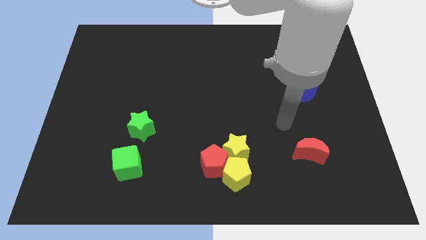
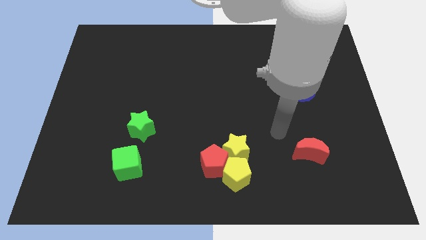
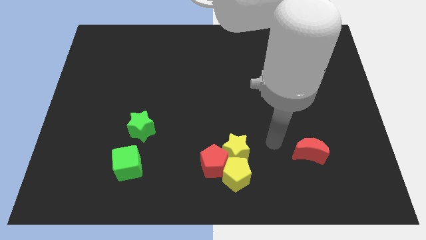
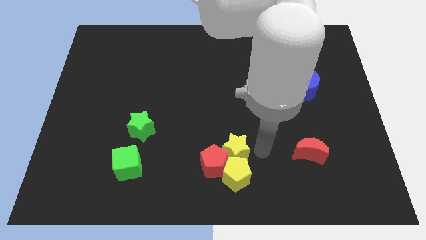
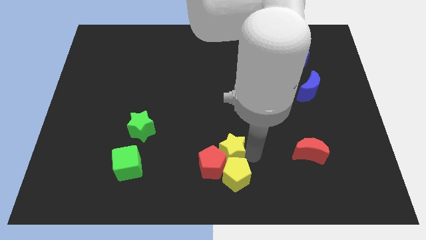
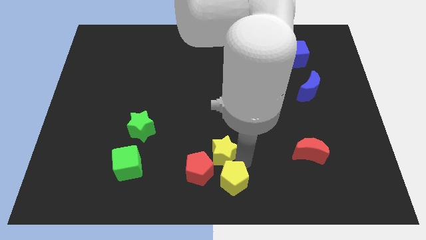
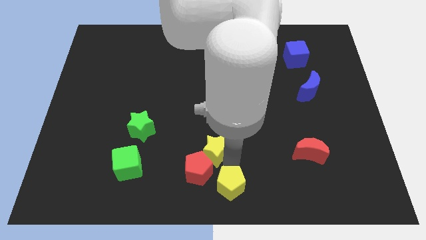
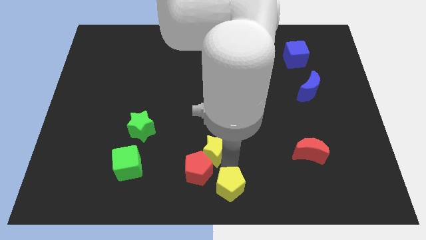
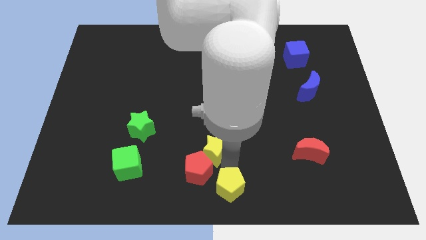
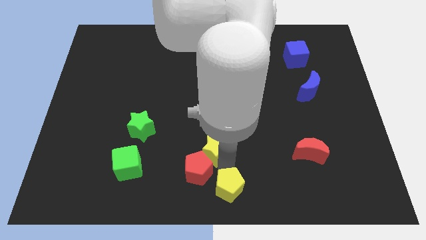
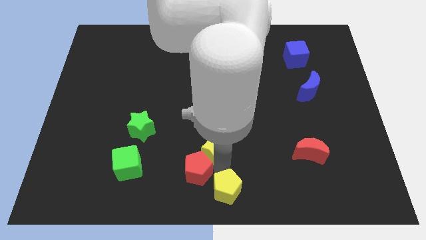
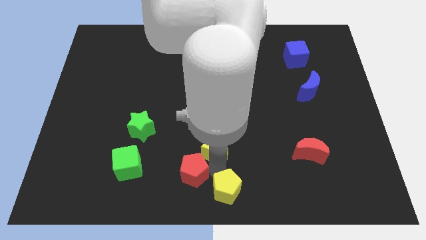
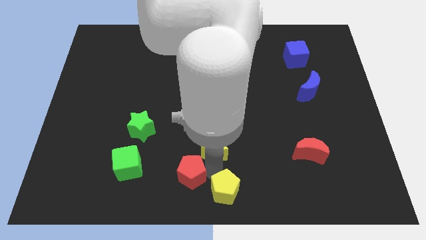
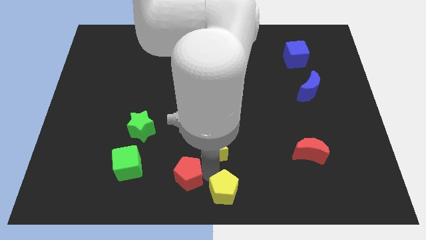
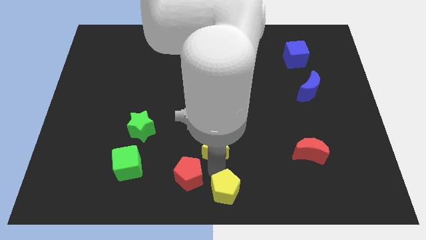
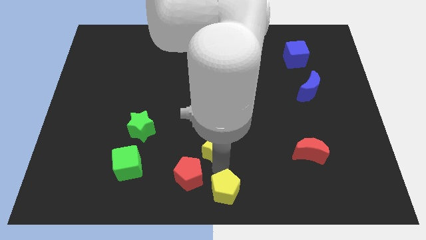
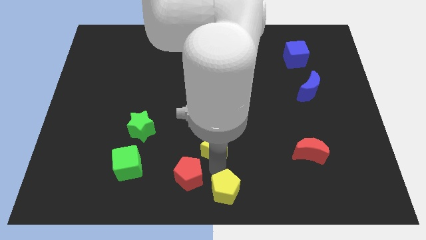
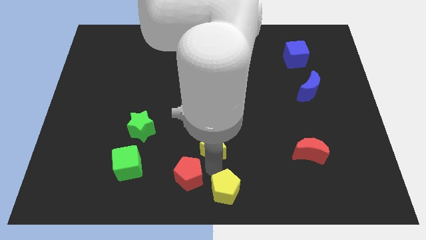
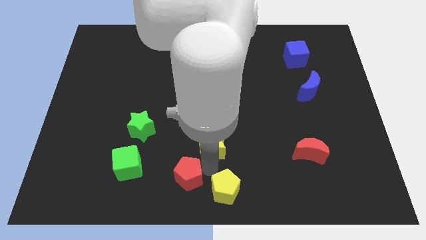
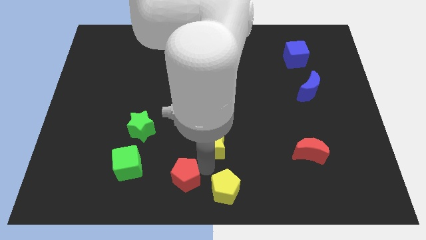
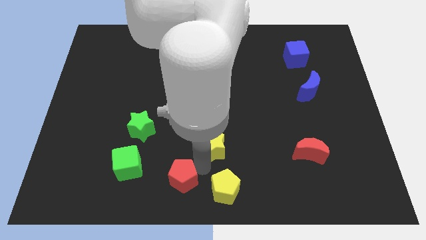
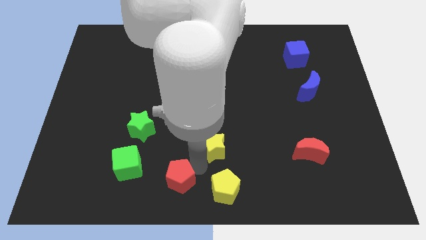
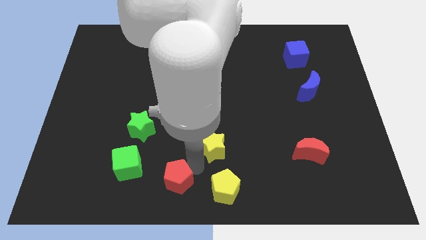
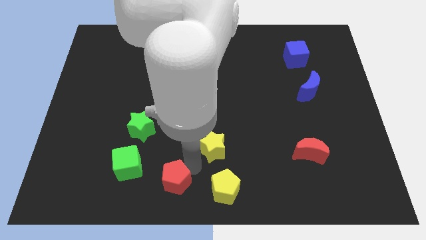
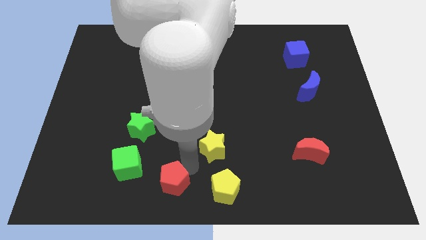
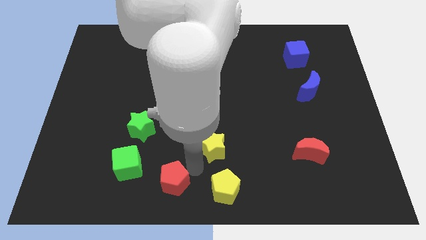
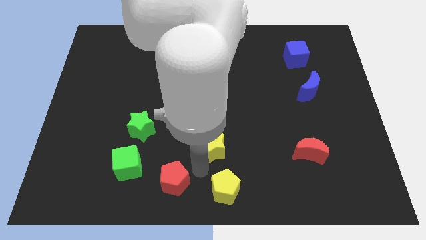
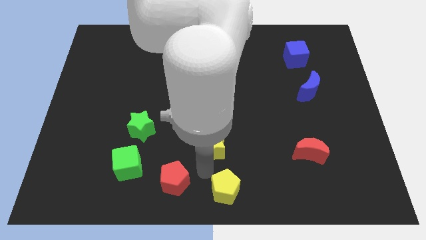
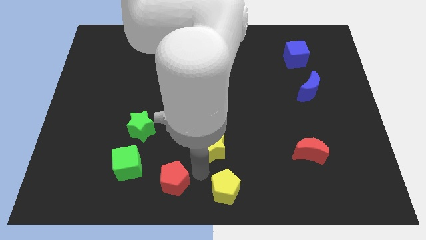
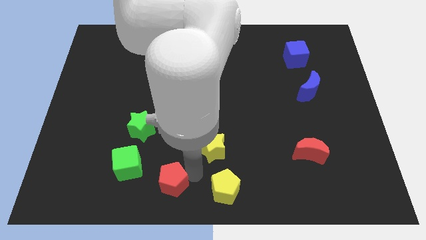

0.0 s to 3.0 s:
move the red pentagon away from the yellow pentagon and yellow star

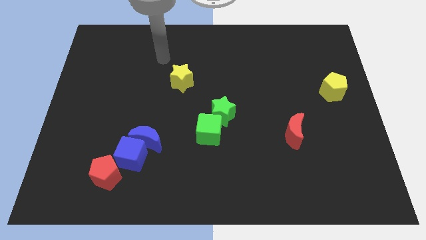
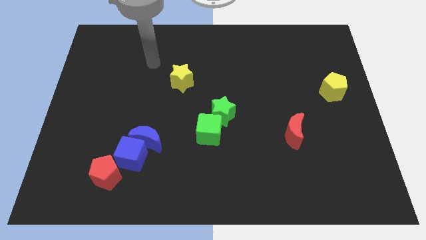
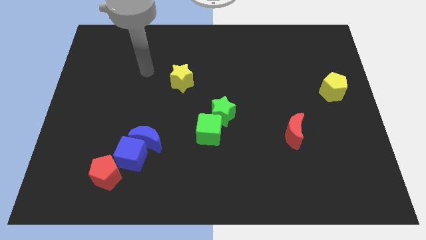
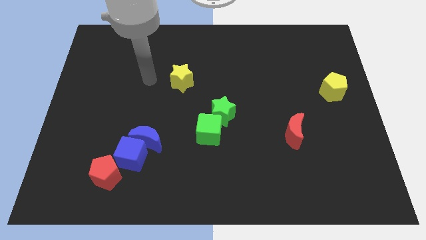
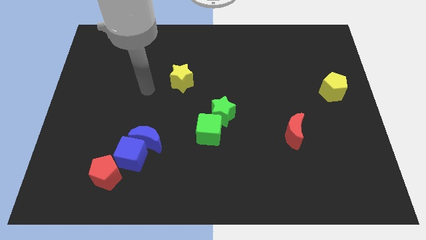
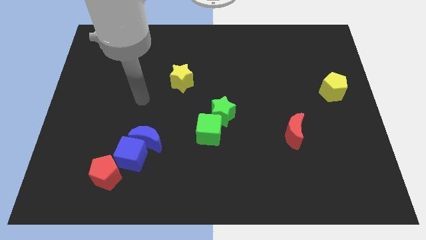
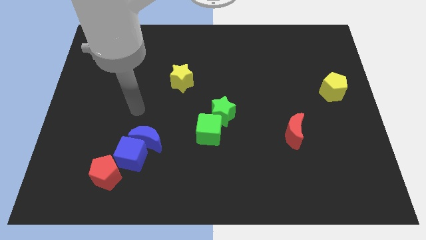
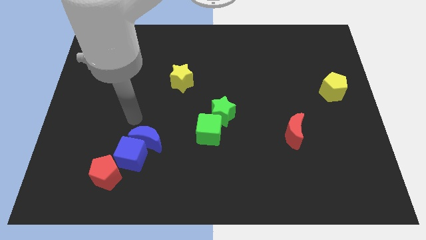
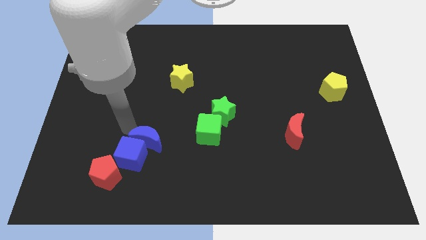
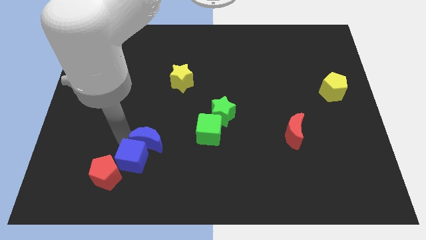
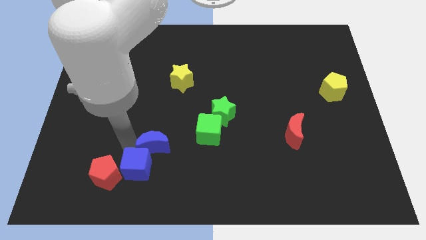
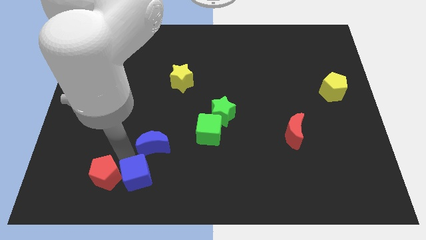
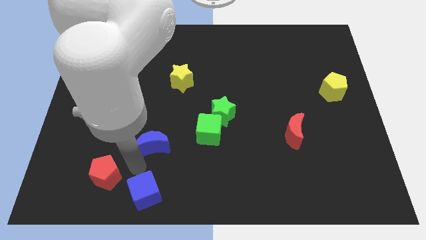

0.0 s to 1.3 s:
move the blue moon away from the blue cube

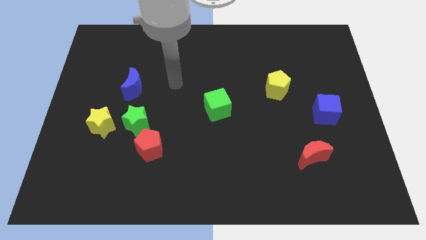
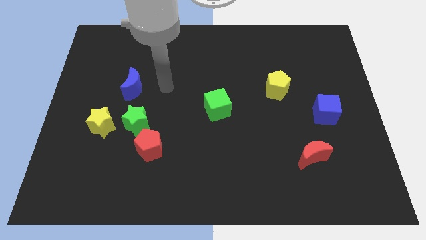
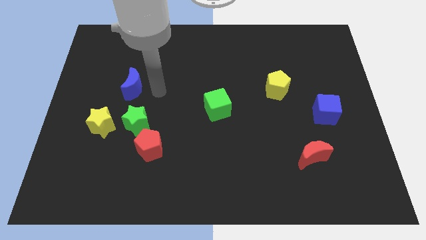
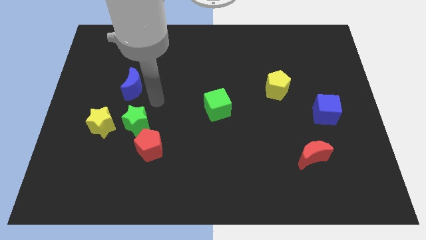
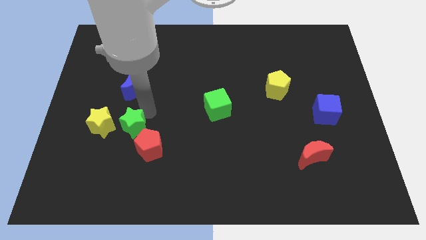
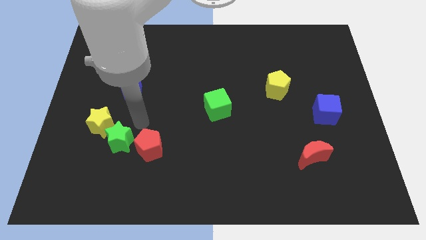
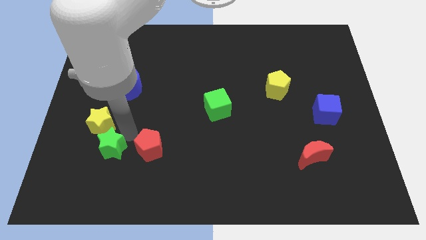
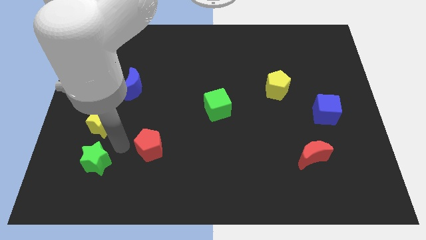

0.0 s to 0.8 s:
separate the red pentagon from the green star

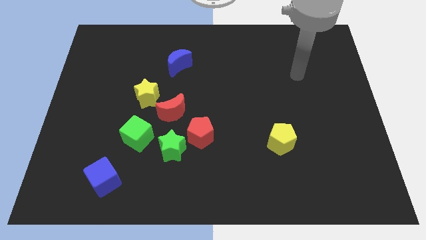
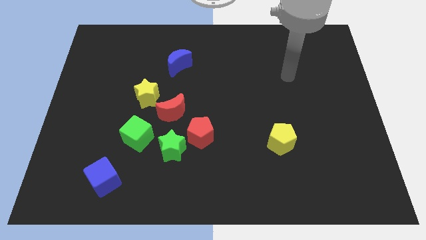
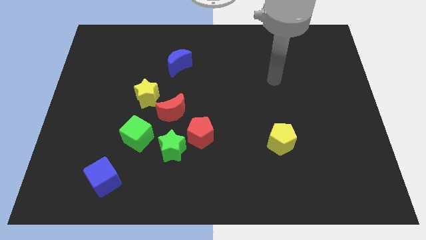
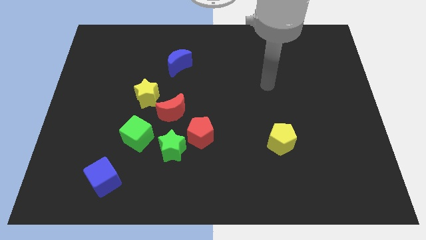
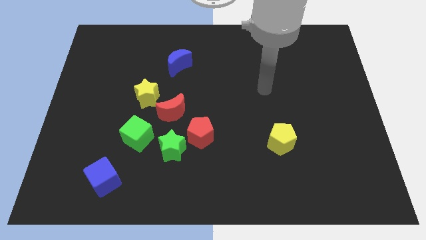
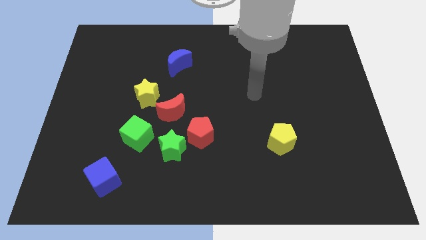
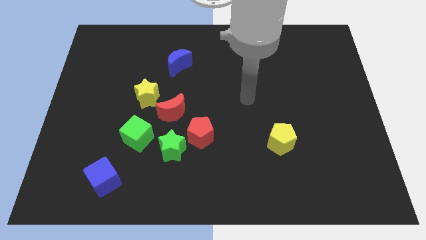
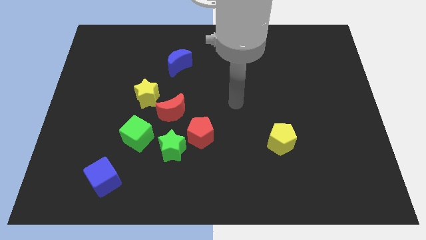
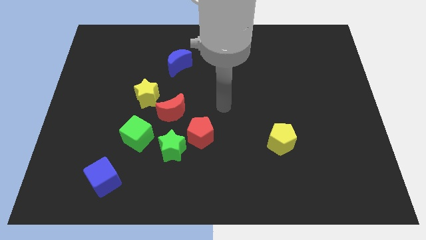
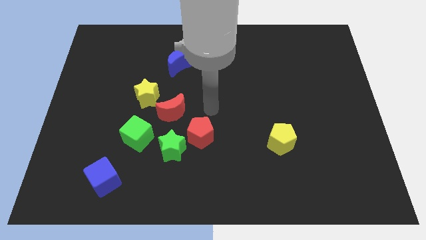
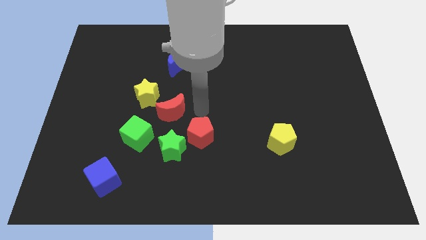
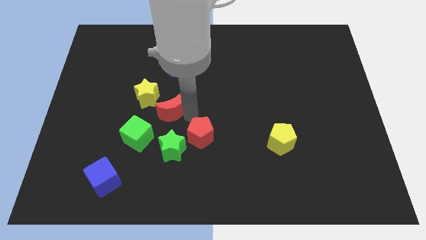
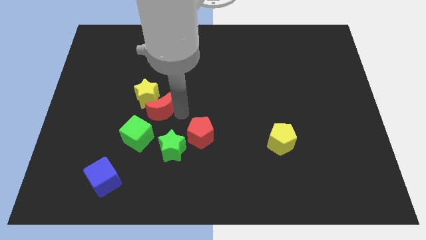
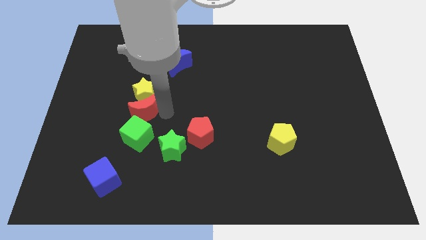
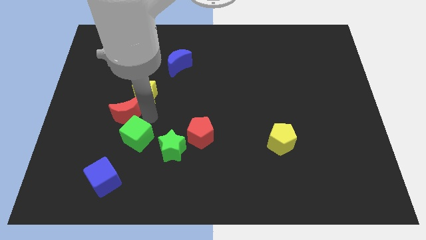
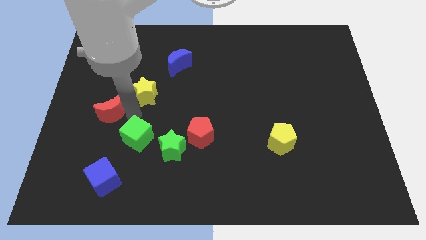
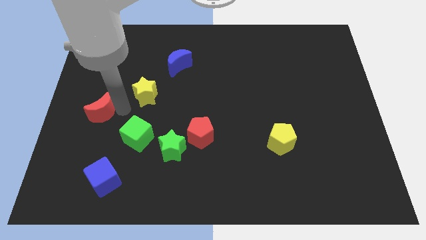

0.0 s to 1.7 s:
separate the yellow star from the red moon

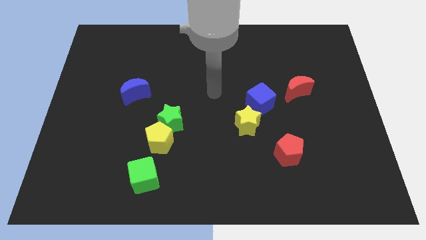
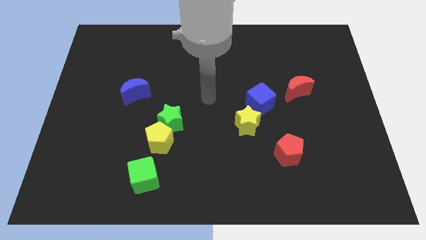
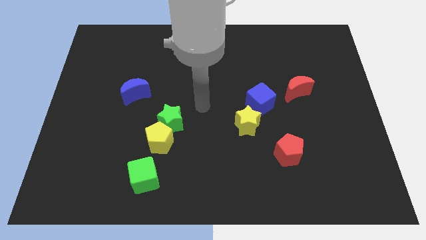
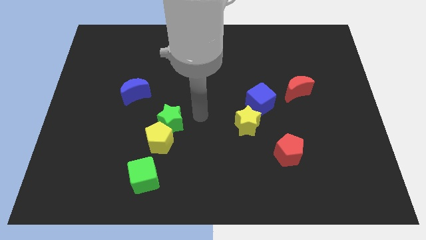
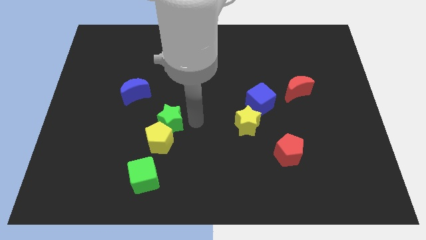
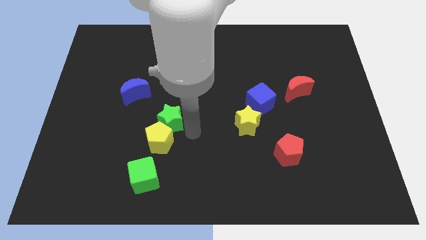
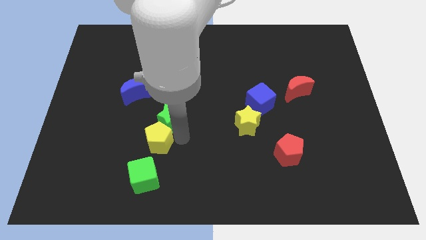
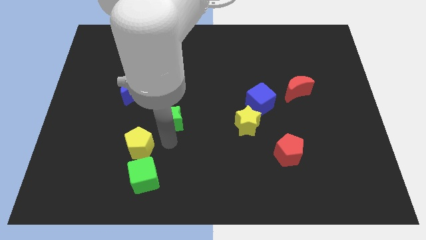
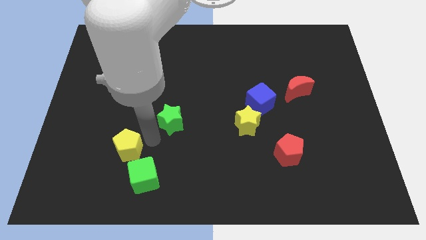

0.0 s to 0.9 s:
separate the green star from the yellow pentagon

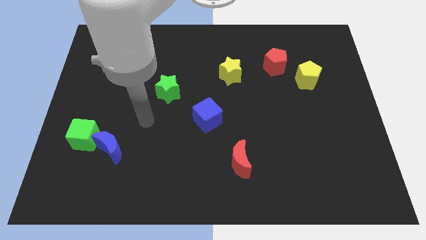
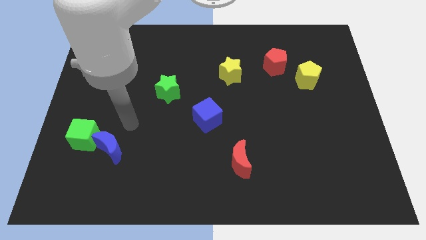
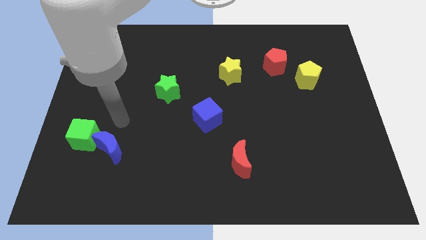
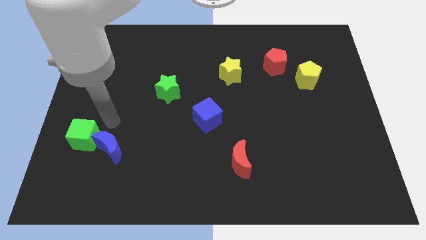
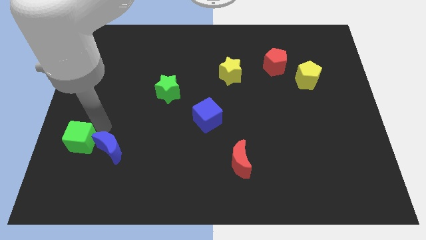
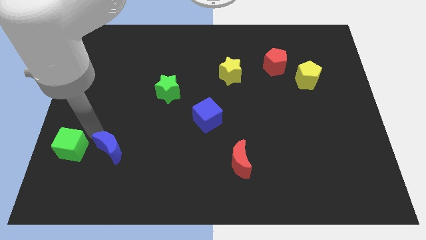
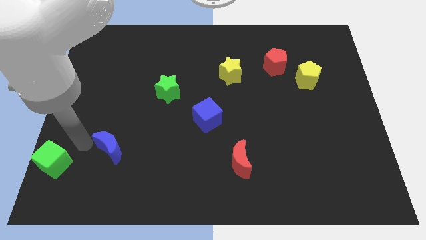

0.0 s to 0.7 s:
pull the blue moon apart from the green cube

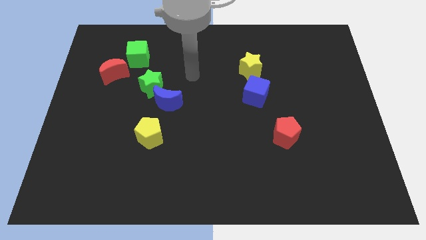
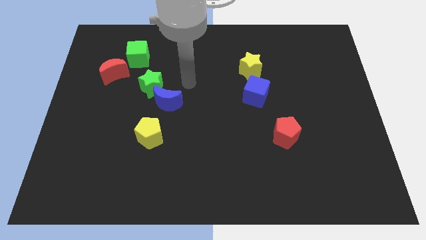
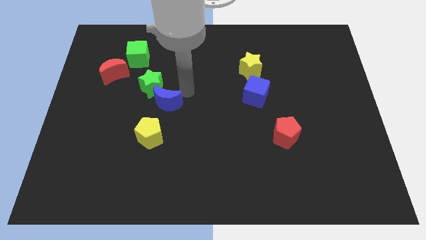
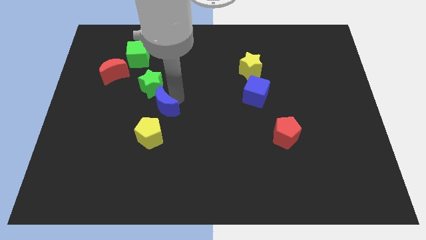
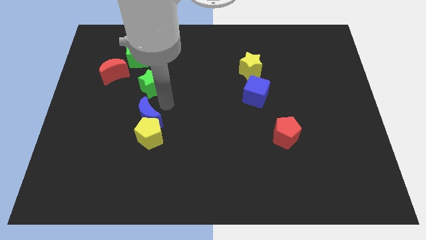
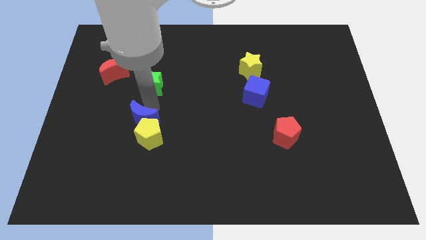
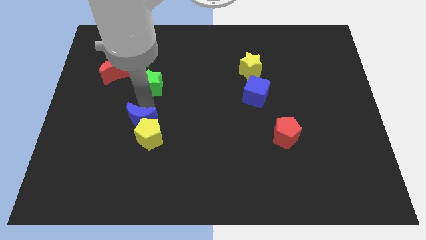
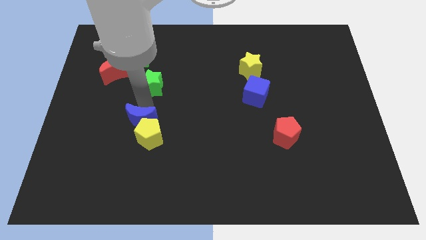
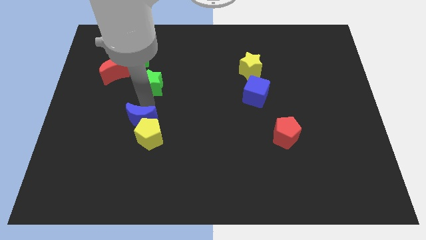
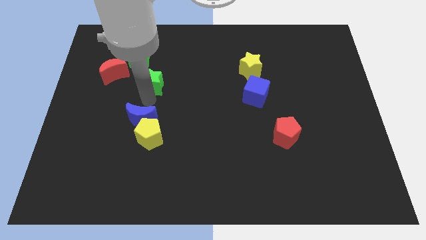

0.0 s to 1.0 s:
move the green star away from the blue moon
